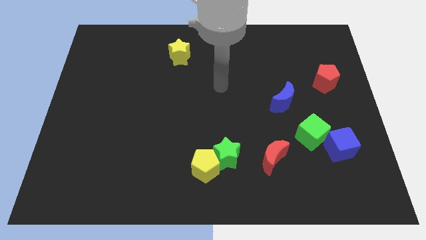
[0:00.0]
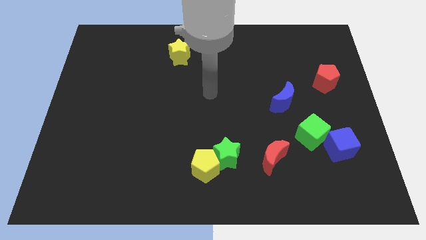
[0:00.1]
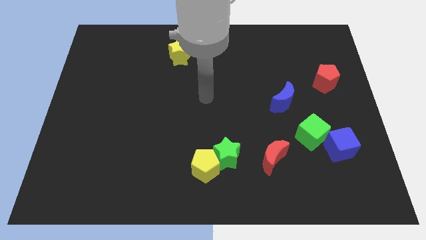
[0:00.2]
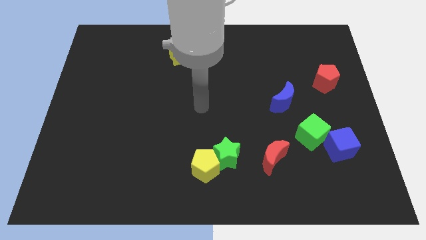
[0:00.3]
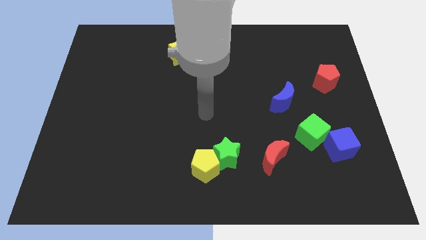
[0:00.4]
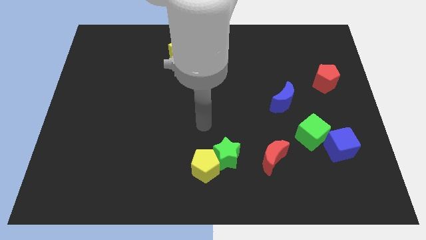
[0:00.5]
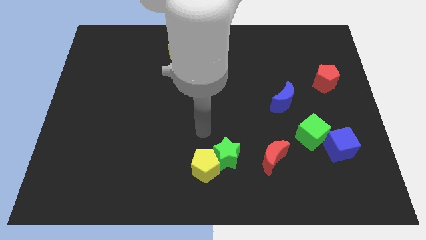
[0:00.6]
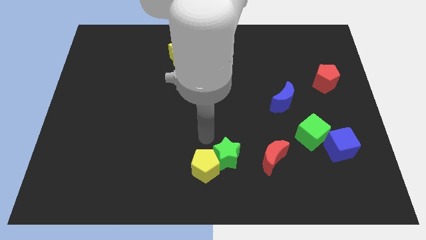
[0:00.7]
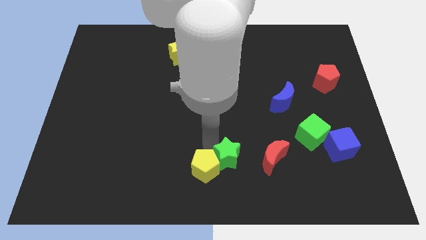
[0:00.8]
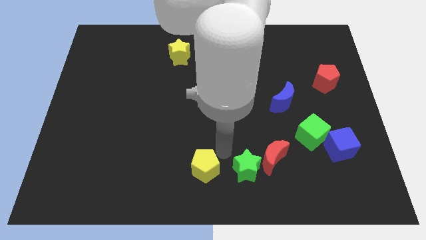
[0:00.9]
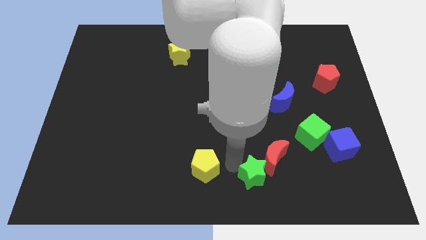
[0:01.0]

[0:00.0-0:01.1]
move the yellow pentagon away from the green star

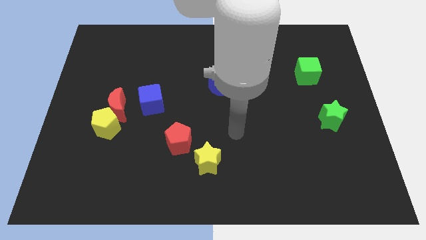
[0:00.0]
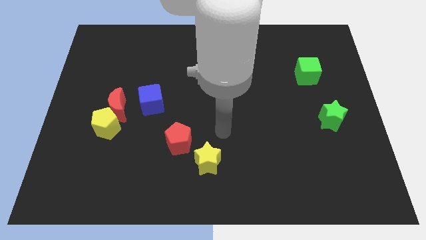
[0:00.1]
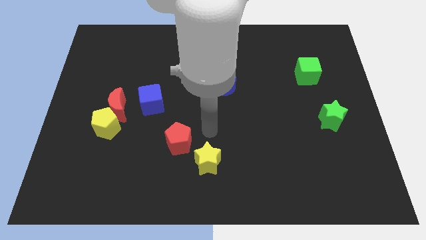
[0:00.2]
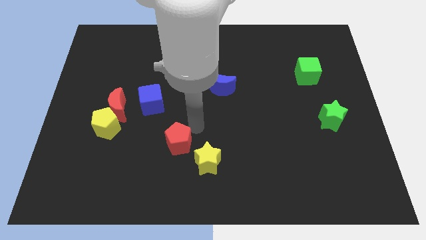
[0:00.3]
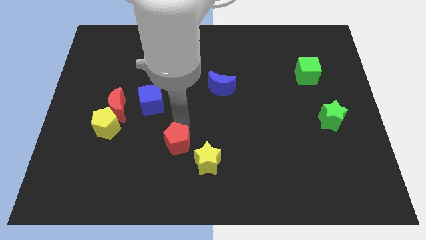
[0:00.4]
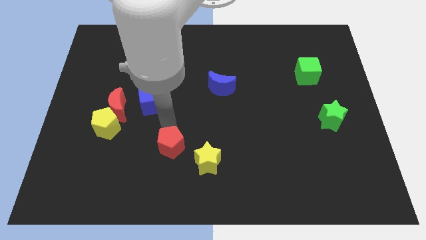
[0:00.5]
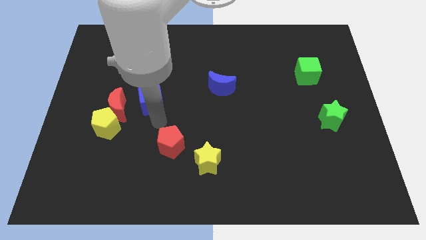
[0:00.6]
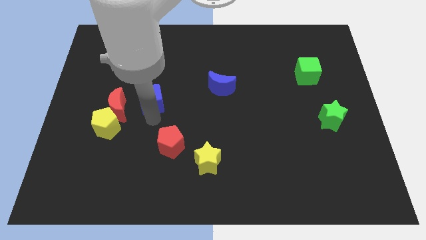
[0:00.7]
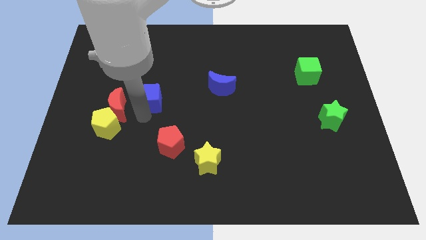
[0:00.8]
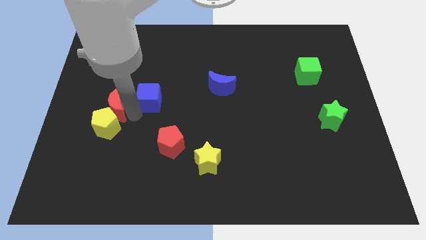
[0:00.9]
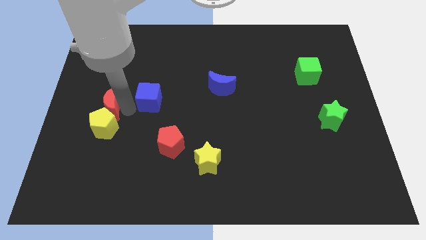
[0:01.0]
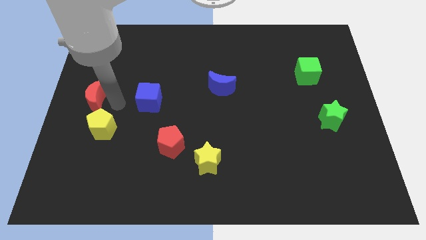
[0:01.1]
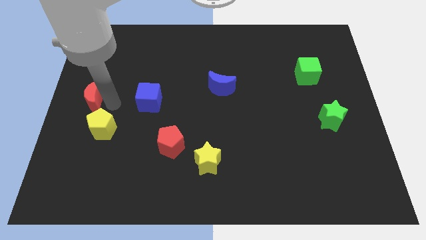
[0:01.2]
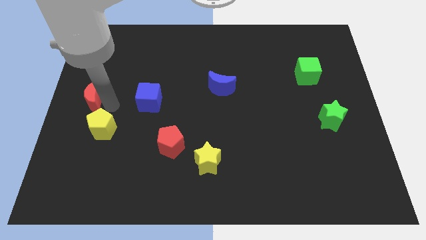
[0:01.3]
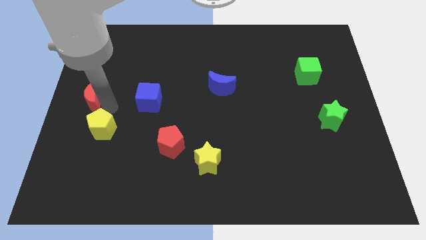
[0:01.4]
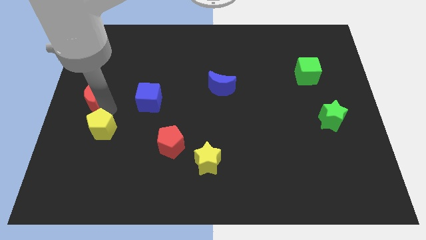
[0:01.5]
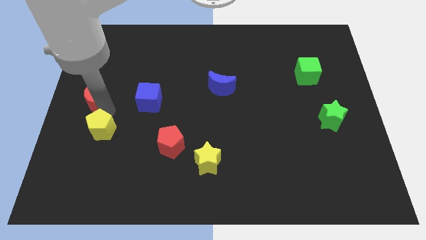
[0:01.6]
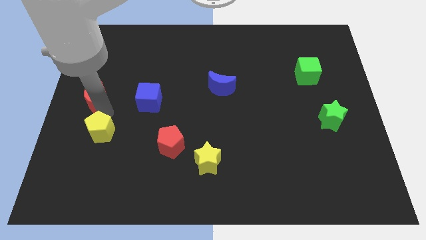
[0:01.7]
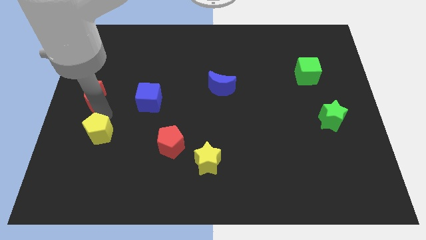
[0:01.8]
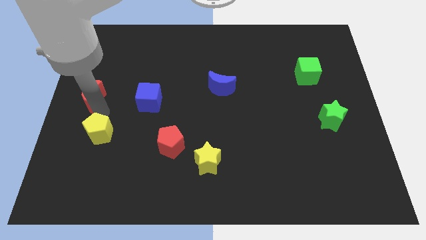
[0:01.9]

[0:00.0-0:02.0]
separate the yellow pentagon from the red moon

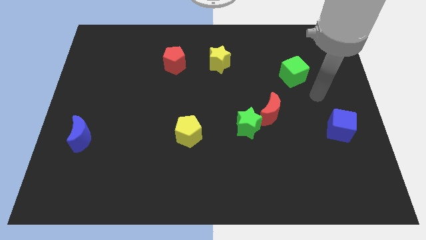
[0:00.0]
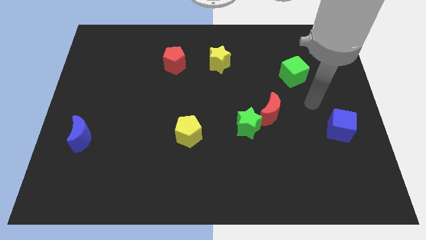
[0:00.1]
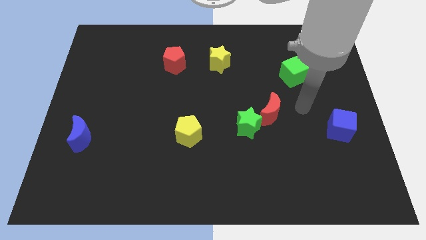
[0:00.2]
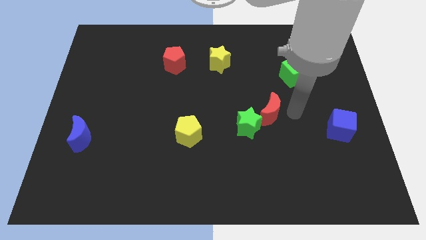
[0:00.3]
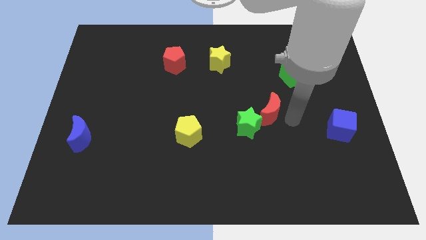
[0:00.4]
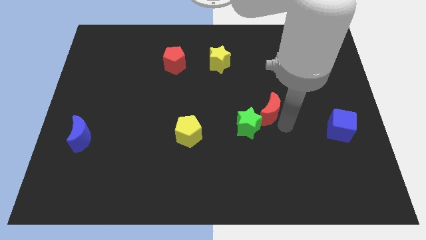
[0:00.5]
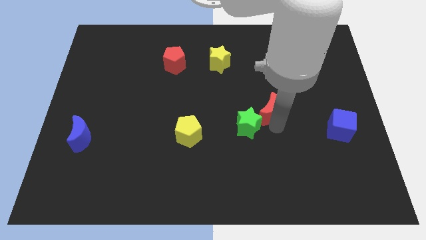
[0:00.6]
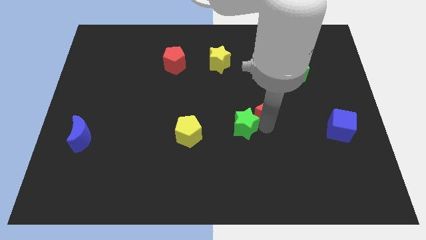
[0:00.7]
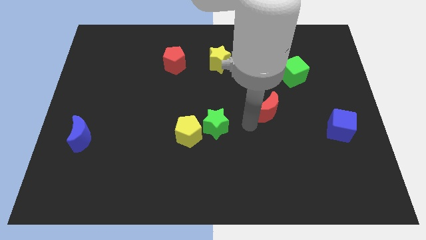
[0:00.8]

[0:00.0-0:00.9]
pull the red moon apart from the green star

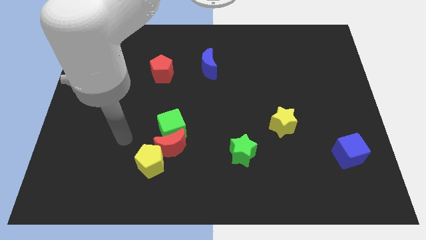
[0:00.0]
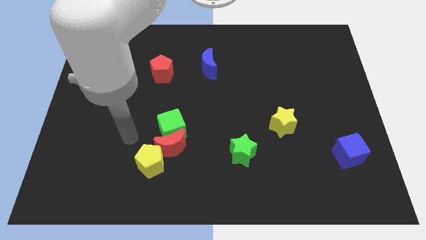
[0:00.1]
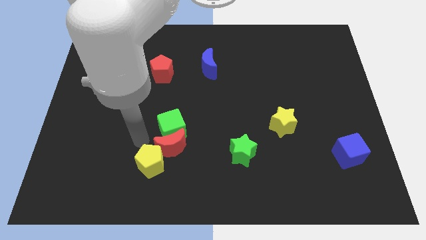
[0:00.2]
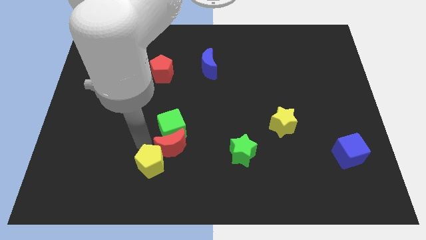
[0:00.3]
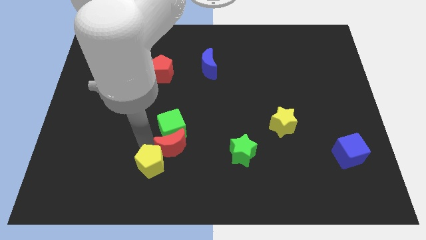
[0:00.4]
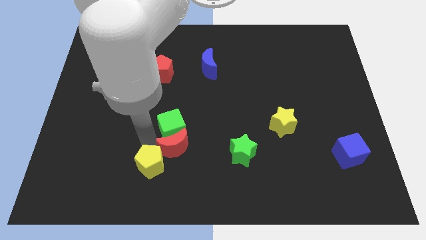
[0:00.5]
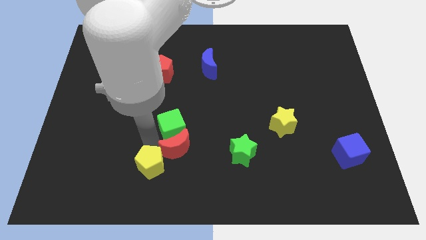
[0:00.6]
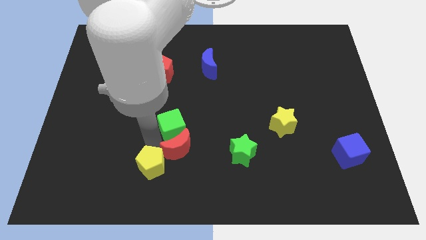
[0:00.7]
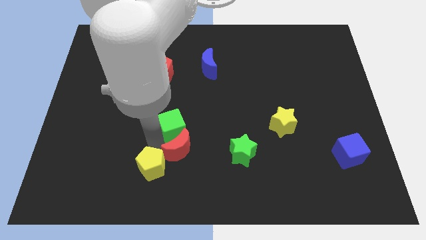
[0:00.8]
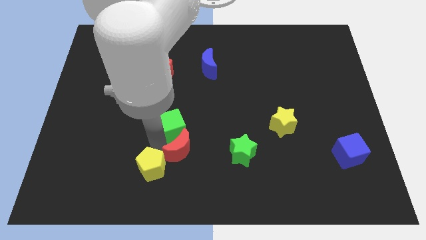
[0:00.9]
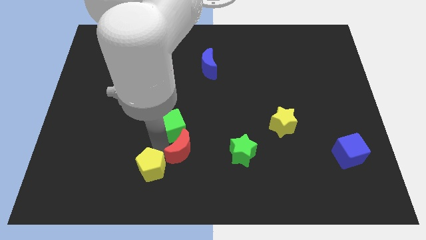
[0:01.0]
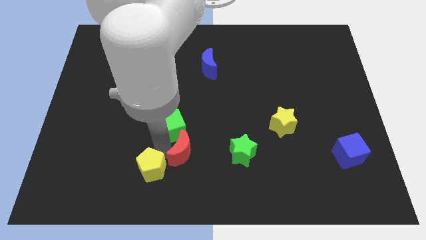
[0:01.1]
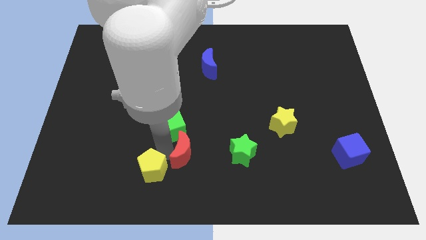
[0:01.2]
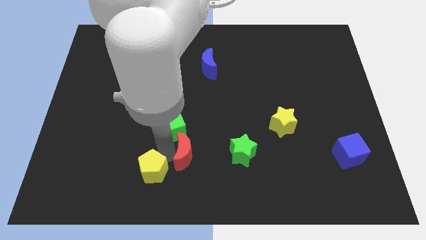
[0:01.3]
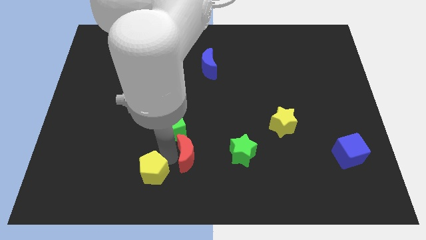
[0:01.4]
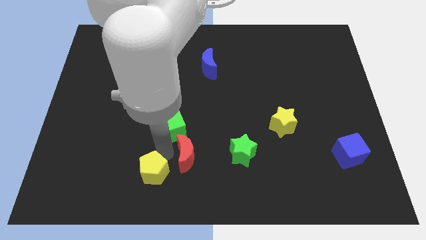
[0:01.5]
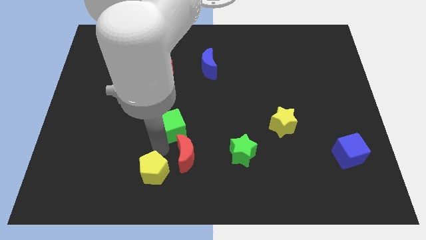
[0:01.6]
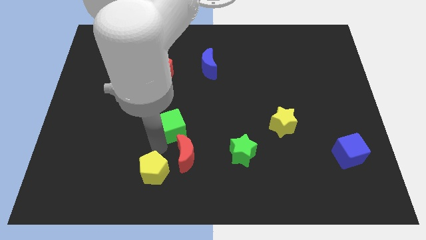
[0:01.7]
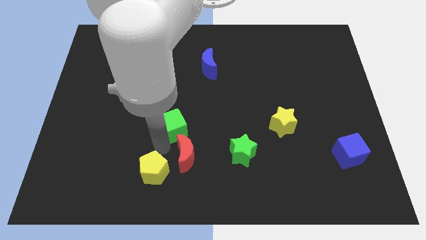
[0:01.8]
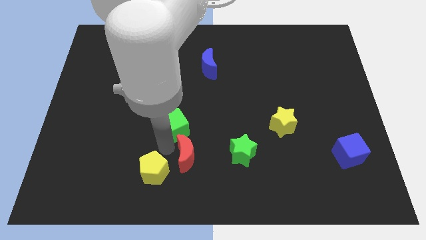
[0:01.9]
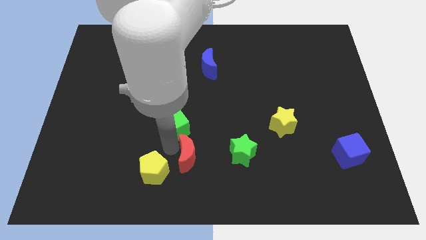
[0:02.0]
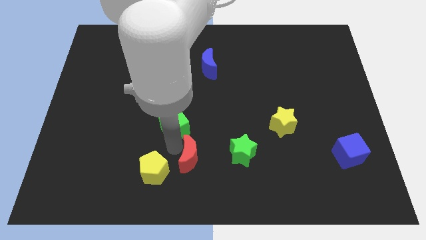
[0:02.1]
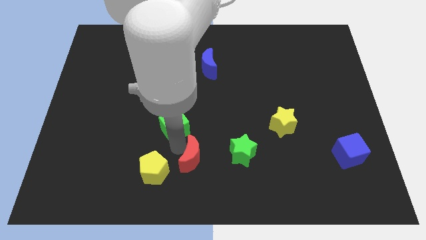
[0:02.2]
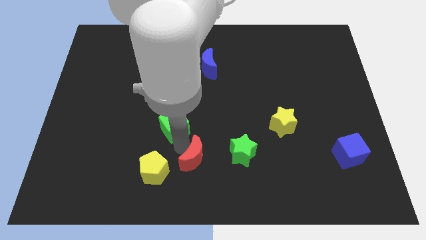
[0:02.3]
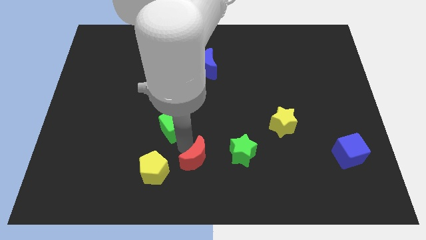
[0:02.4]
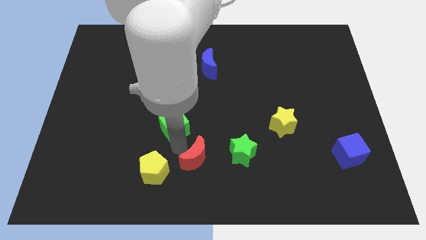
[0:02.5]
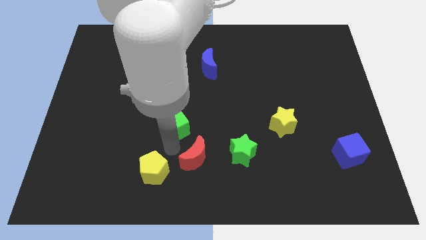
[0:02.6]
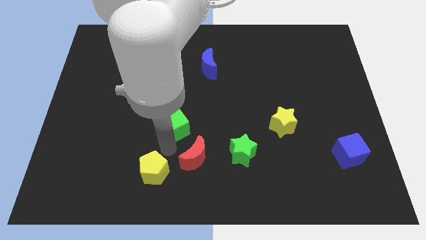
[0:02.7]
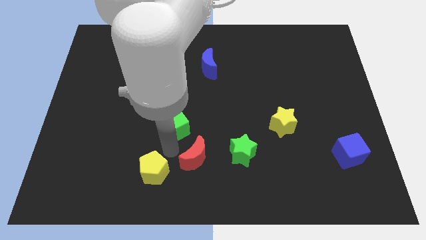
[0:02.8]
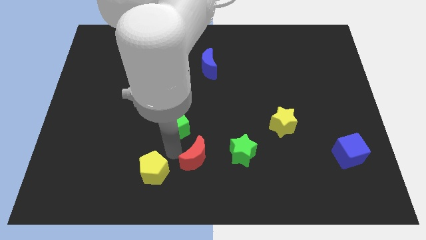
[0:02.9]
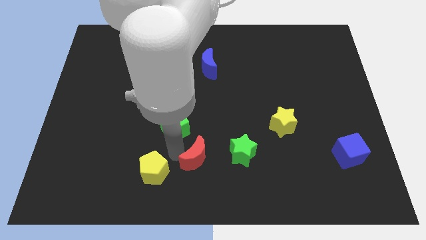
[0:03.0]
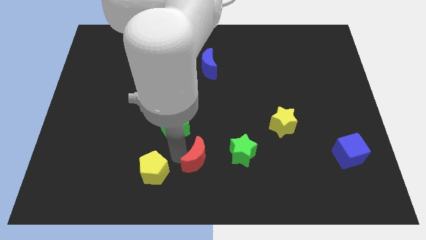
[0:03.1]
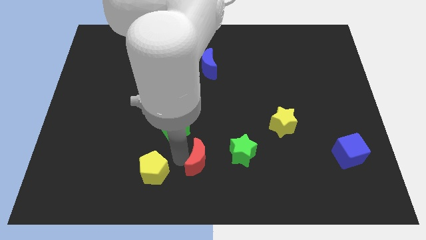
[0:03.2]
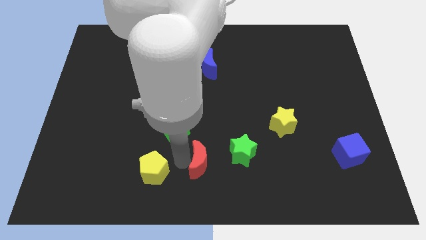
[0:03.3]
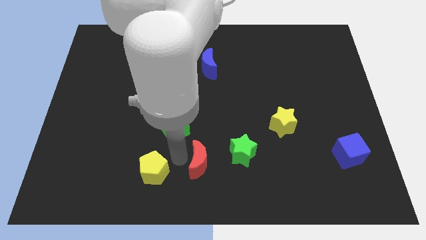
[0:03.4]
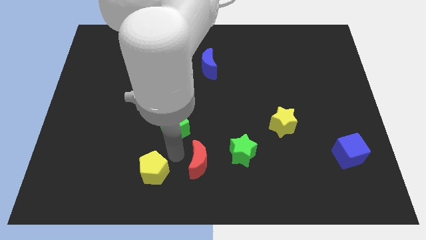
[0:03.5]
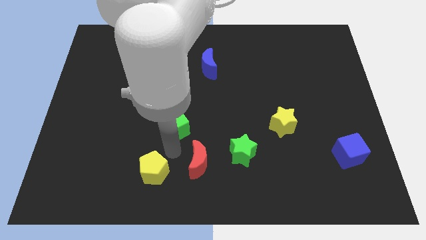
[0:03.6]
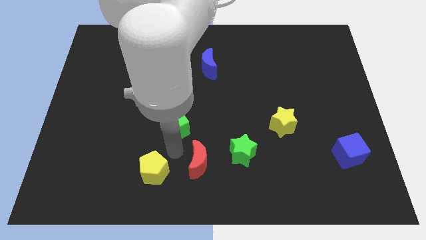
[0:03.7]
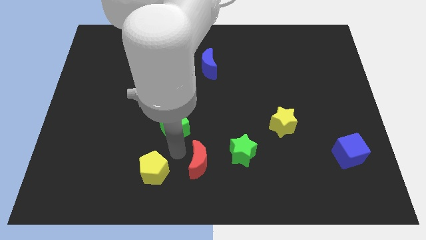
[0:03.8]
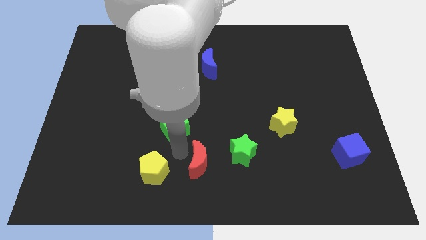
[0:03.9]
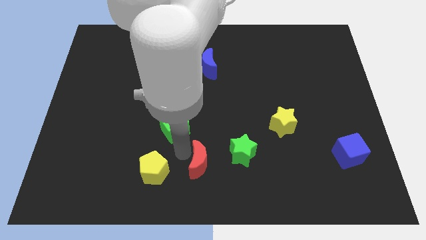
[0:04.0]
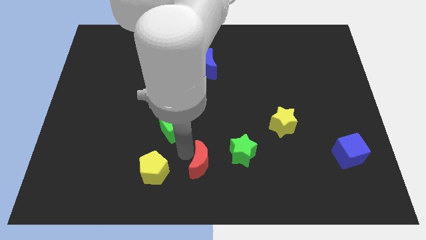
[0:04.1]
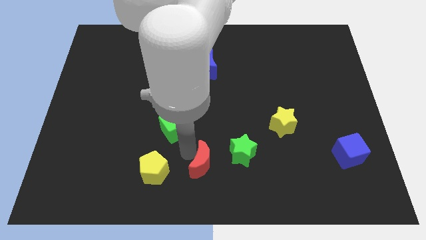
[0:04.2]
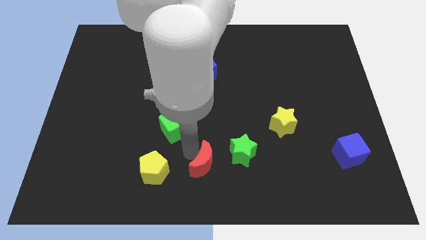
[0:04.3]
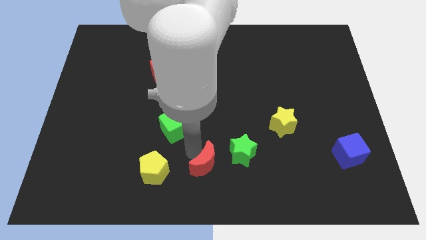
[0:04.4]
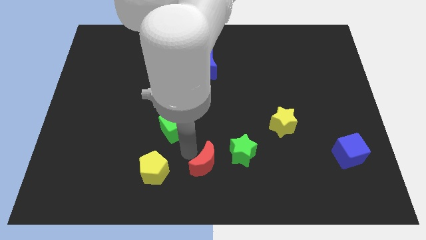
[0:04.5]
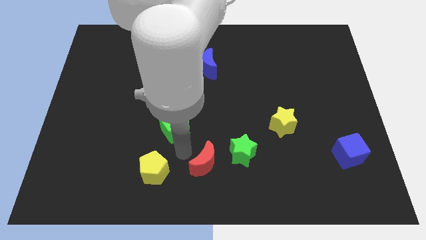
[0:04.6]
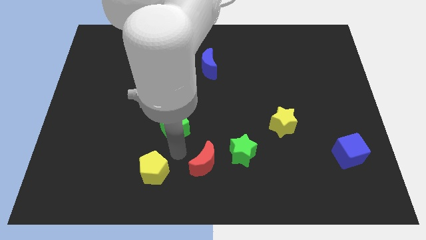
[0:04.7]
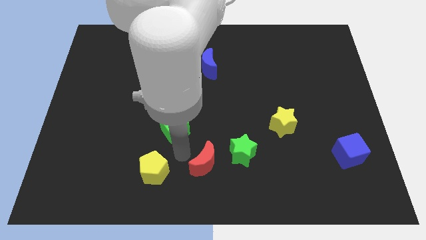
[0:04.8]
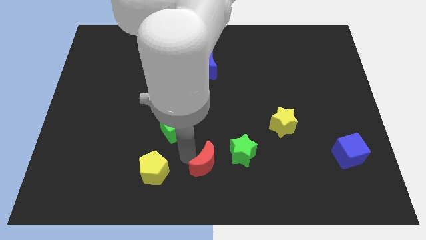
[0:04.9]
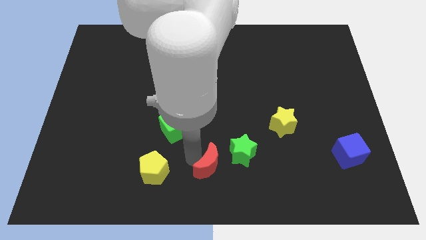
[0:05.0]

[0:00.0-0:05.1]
pull the red moon apart from the green cube and yellow pentagon
